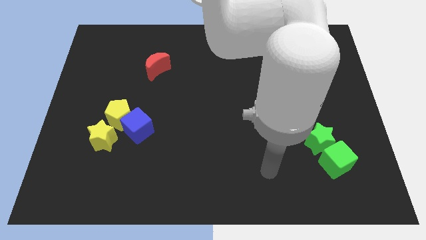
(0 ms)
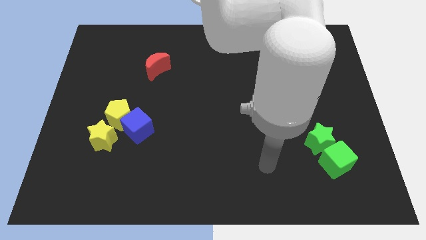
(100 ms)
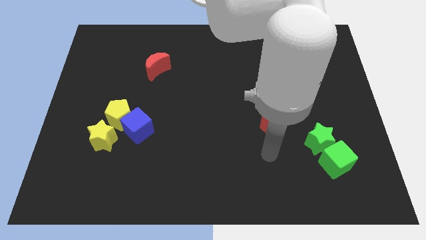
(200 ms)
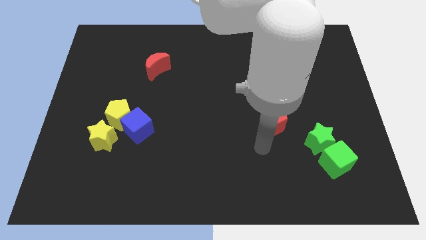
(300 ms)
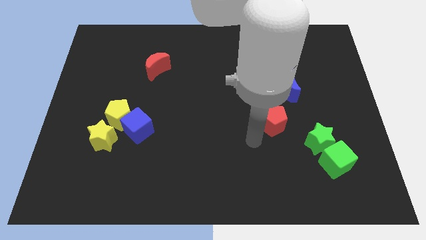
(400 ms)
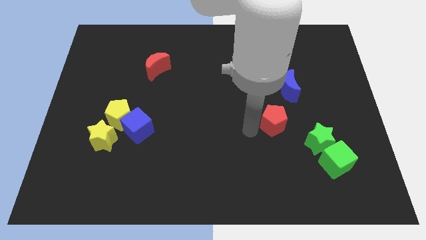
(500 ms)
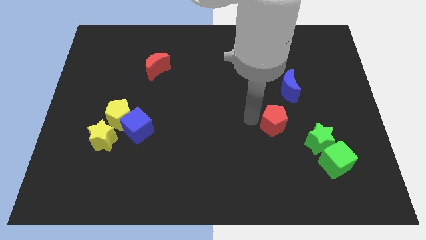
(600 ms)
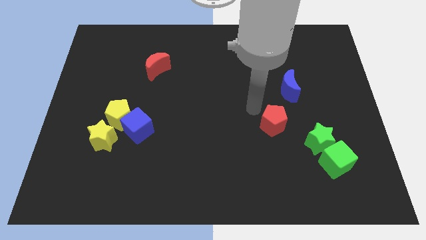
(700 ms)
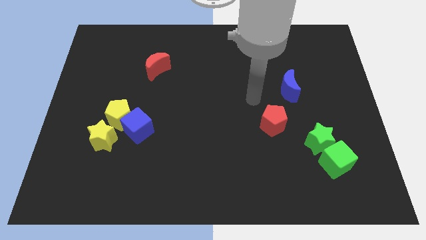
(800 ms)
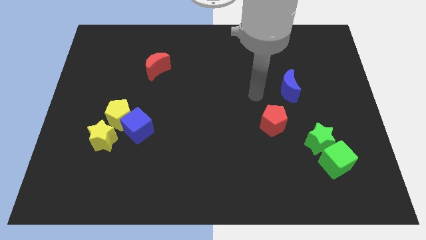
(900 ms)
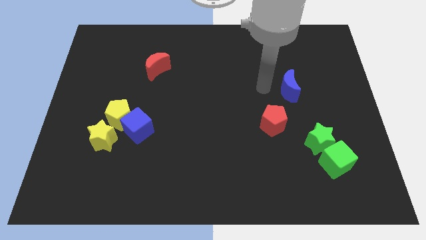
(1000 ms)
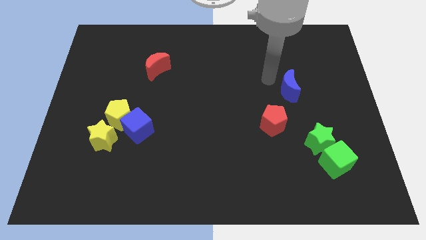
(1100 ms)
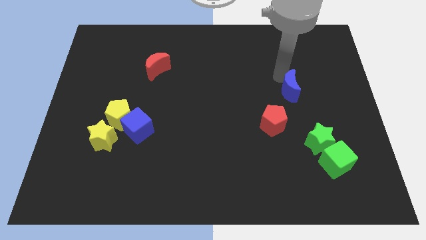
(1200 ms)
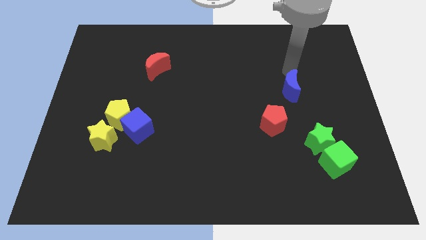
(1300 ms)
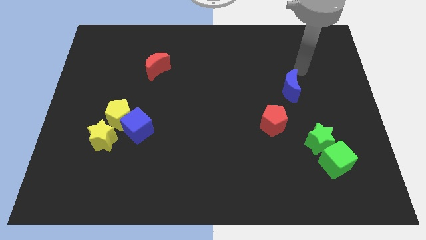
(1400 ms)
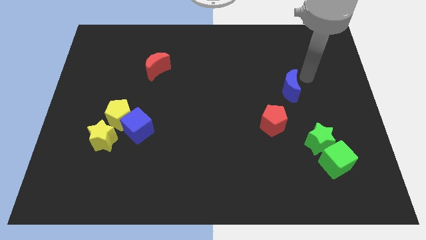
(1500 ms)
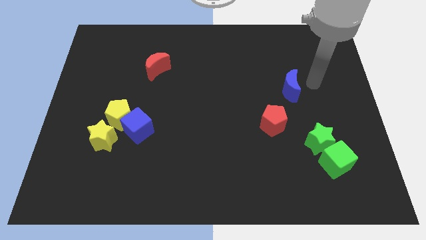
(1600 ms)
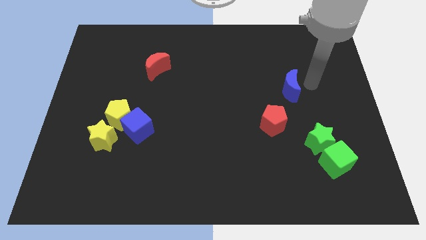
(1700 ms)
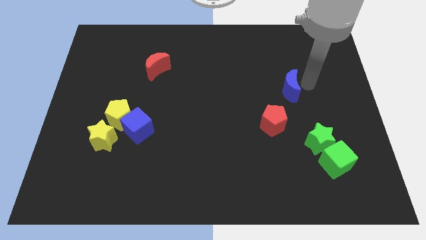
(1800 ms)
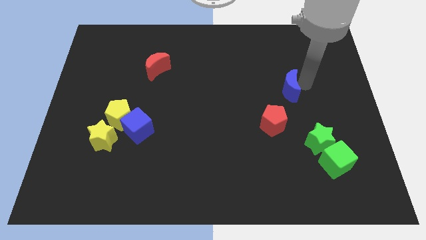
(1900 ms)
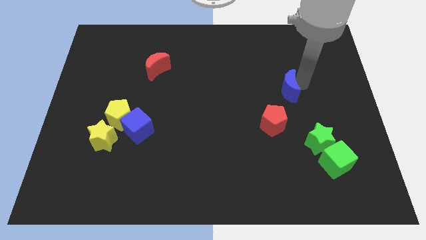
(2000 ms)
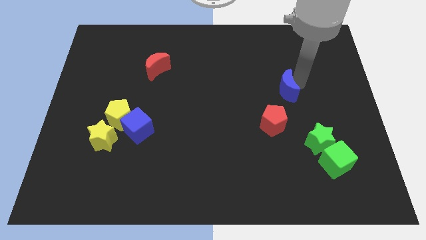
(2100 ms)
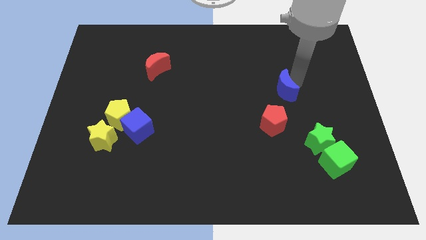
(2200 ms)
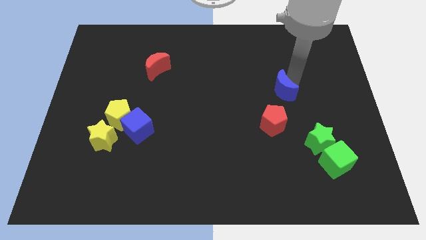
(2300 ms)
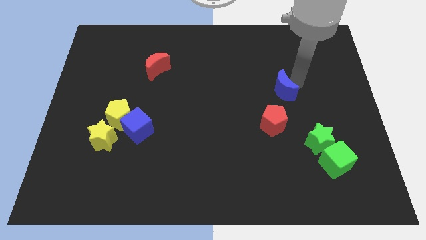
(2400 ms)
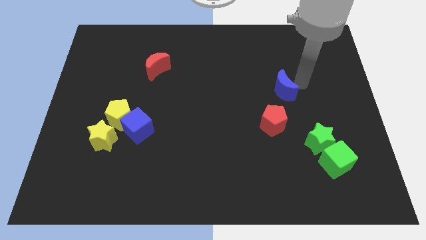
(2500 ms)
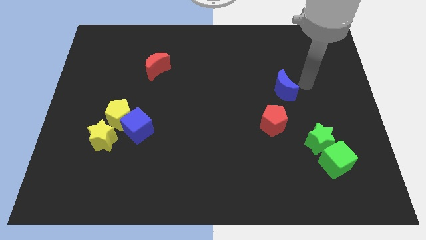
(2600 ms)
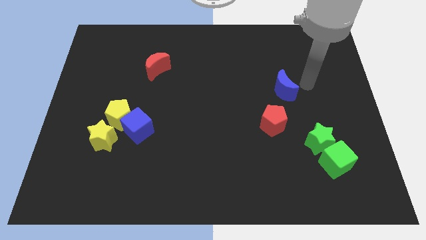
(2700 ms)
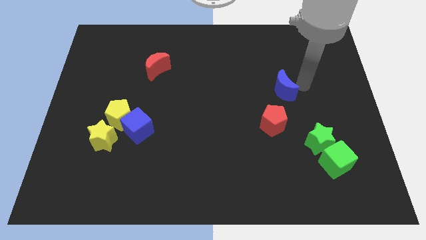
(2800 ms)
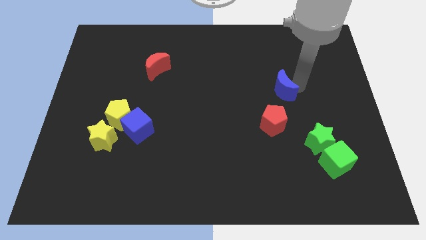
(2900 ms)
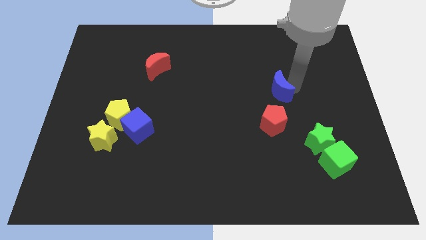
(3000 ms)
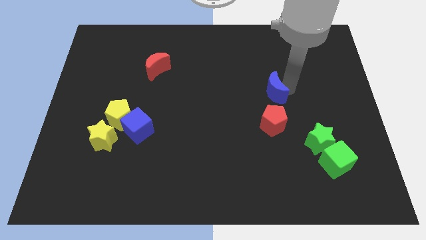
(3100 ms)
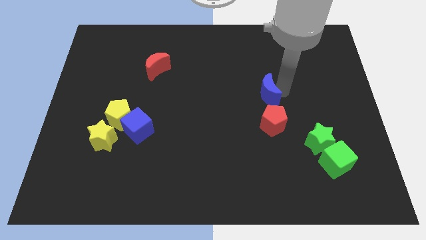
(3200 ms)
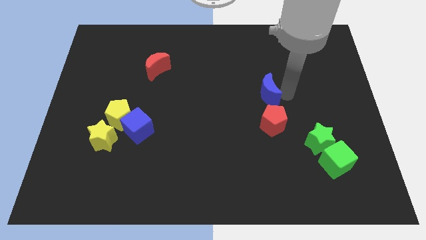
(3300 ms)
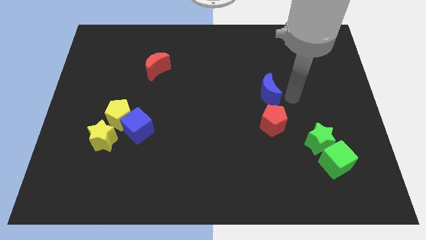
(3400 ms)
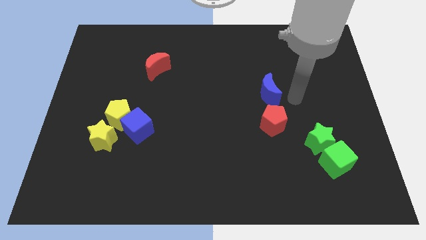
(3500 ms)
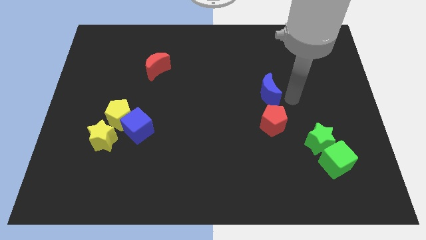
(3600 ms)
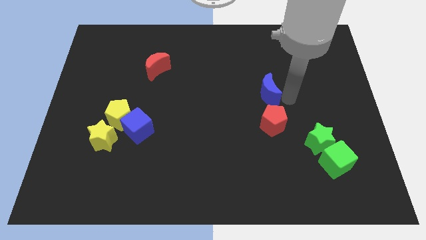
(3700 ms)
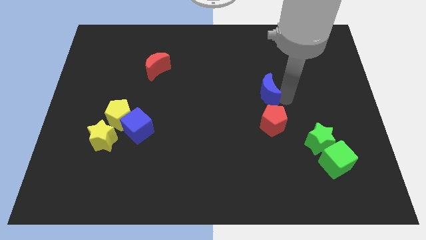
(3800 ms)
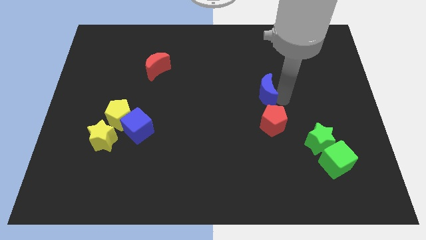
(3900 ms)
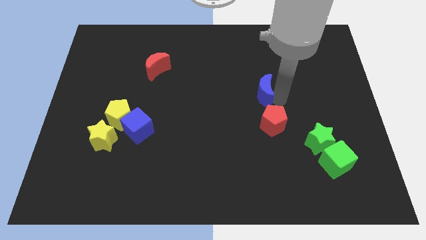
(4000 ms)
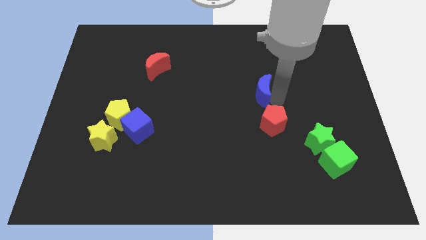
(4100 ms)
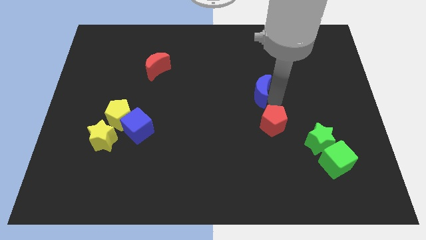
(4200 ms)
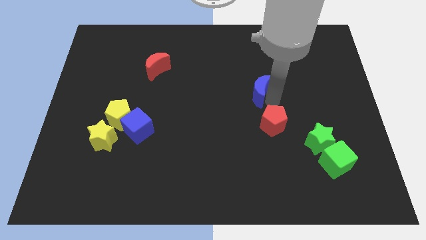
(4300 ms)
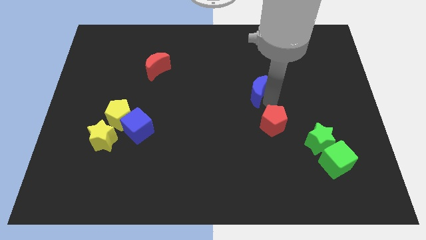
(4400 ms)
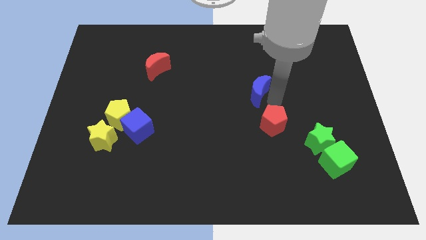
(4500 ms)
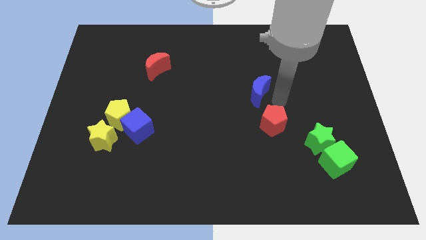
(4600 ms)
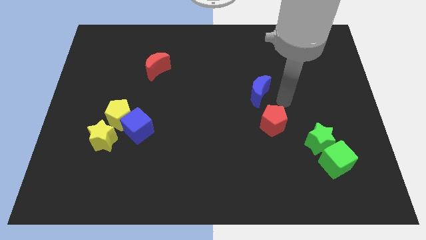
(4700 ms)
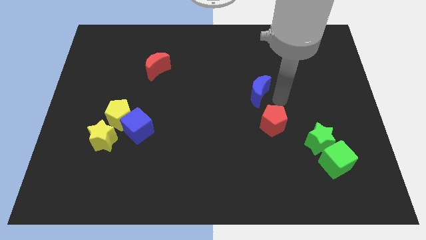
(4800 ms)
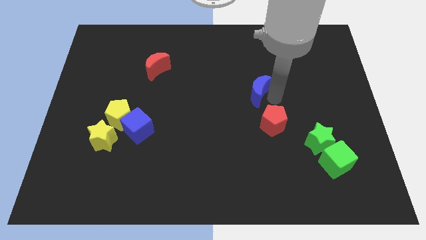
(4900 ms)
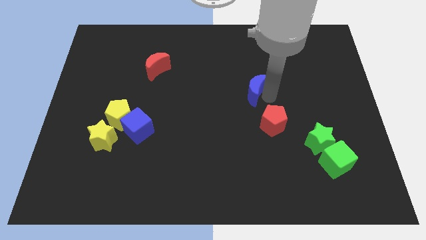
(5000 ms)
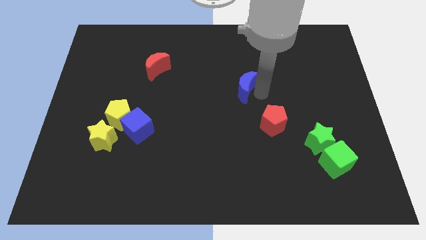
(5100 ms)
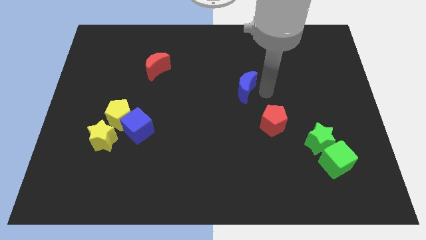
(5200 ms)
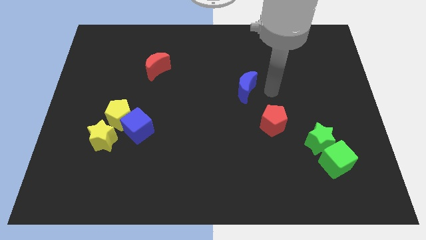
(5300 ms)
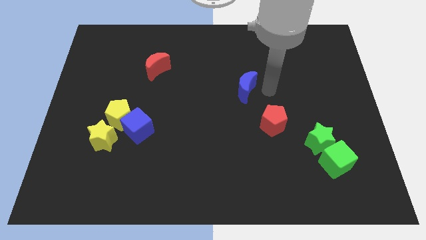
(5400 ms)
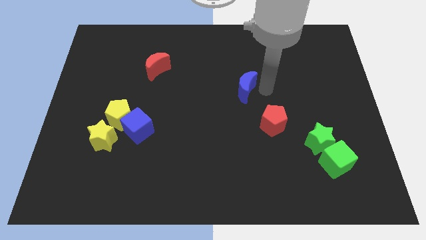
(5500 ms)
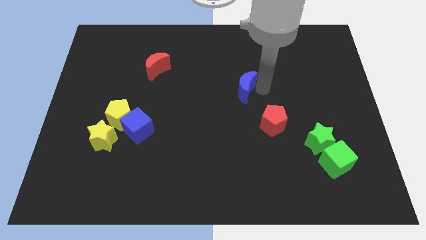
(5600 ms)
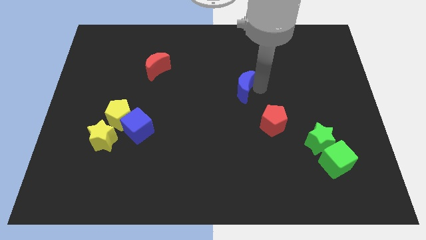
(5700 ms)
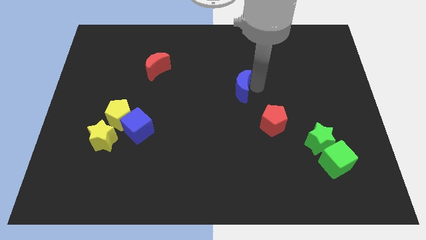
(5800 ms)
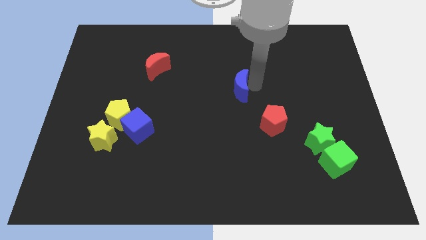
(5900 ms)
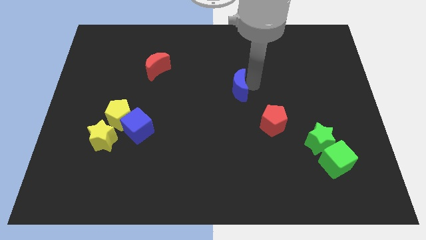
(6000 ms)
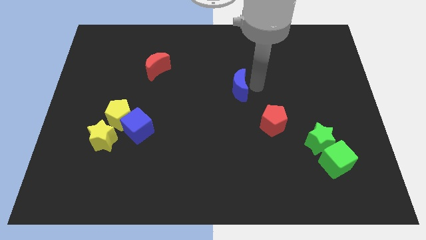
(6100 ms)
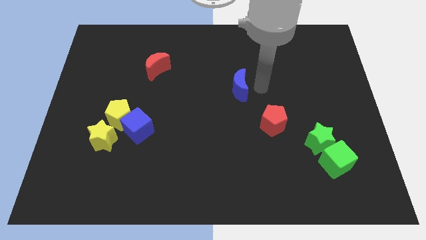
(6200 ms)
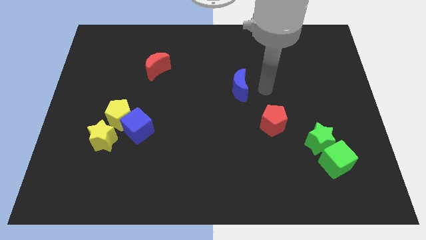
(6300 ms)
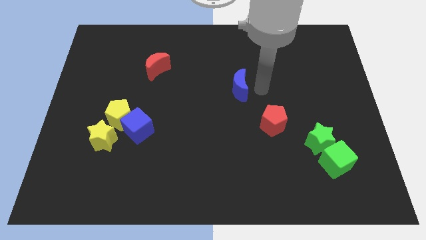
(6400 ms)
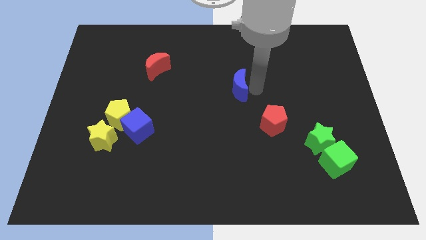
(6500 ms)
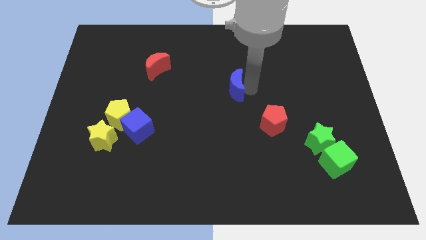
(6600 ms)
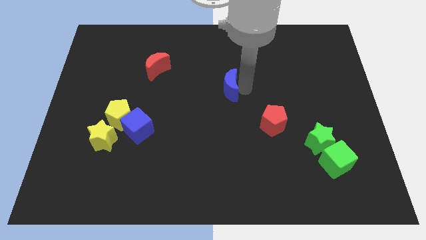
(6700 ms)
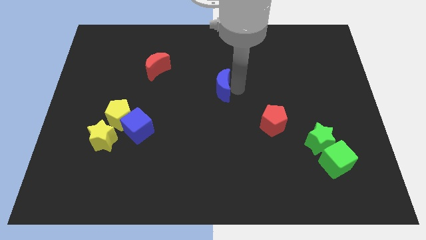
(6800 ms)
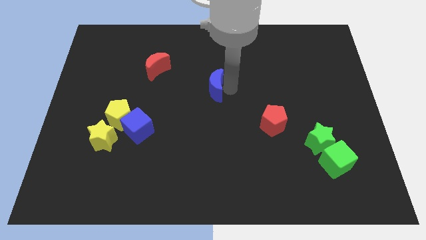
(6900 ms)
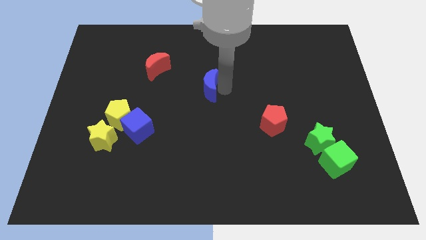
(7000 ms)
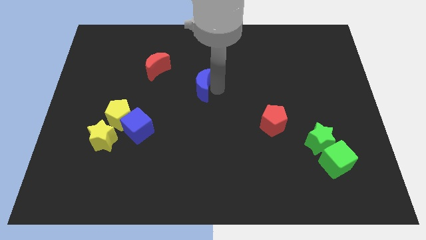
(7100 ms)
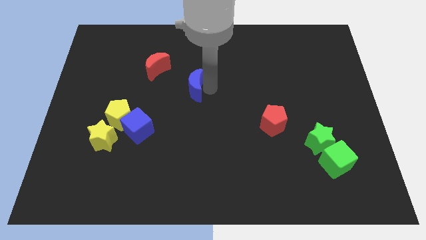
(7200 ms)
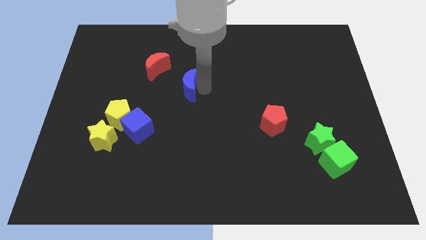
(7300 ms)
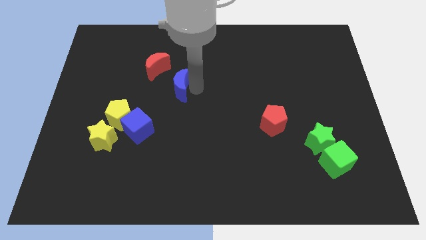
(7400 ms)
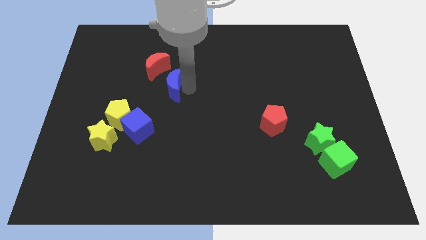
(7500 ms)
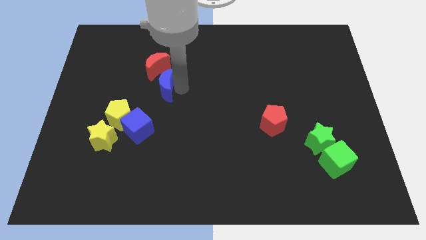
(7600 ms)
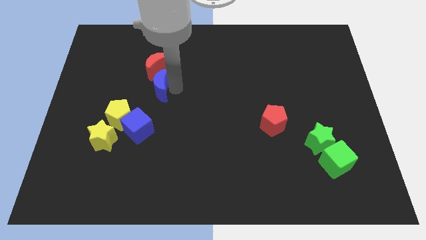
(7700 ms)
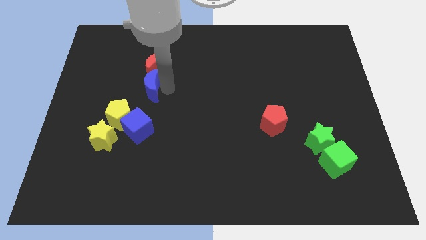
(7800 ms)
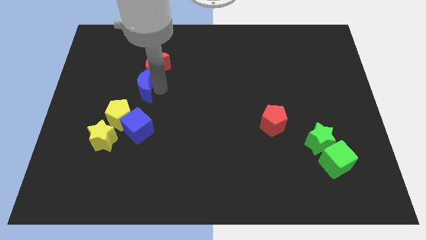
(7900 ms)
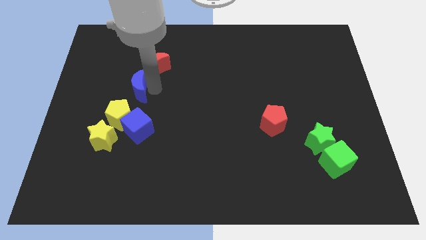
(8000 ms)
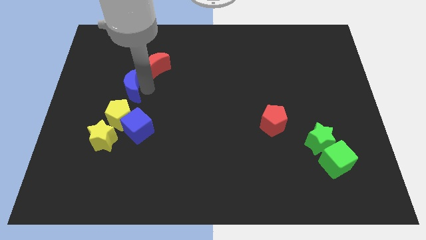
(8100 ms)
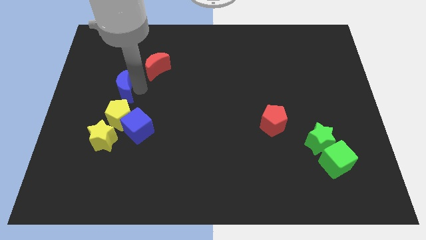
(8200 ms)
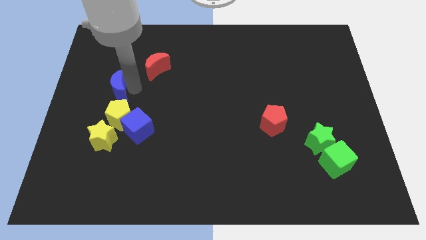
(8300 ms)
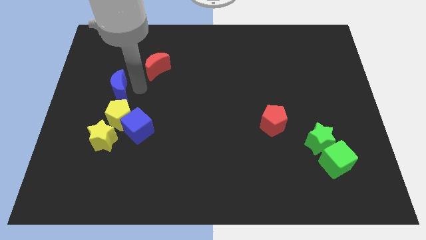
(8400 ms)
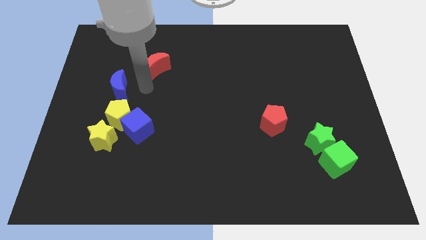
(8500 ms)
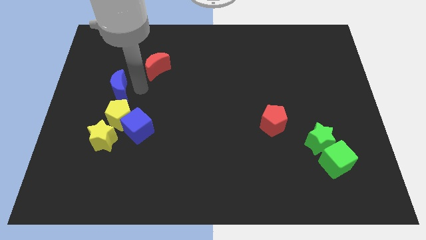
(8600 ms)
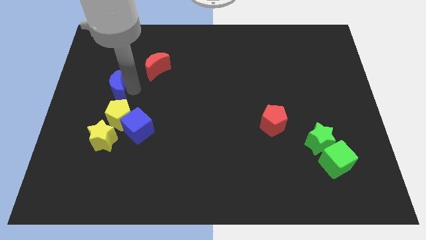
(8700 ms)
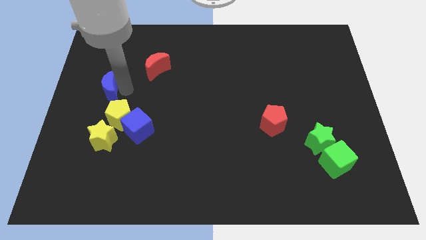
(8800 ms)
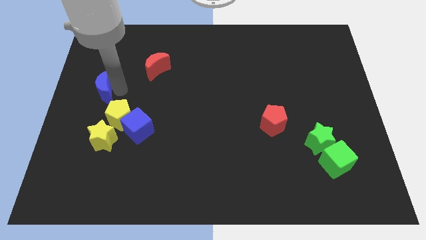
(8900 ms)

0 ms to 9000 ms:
move the blue moon to the left side
